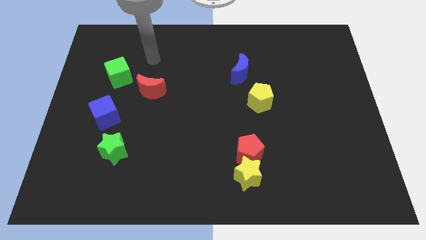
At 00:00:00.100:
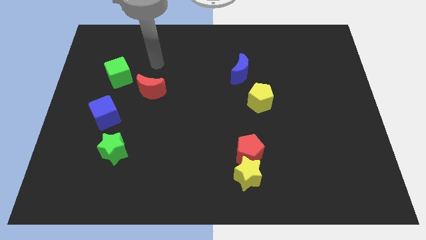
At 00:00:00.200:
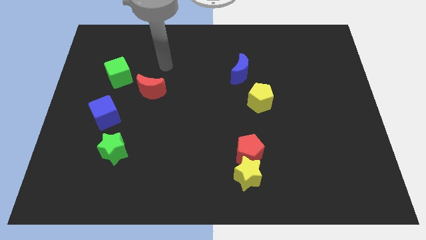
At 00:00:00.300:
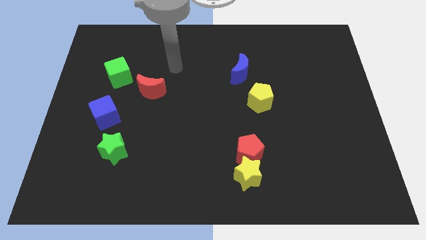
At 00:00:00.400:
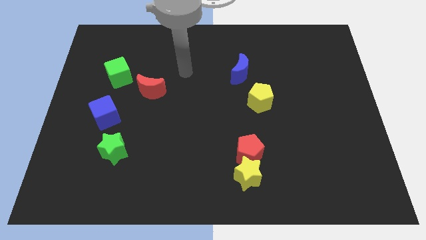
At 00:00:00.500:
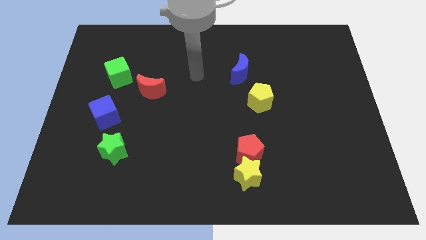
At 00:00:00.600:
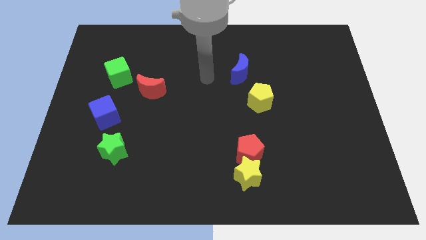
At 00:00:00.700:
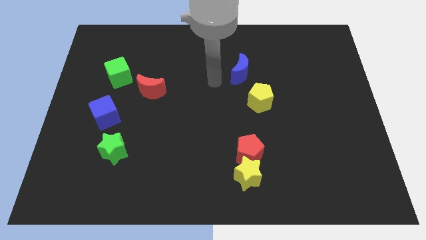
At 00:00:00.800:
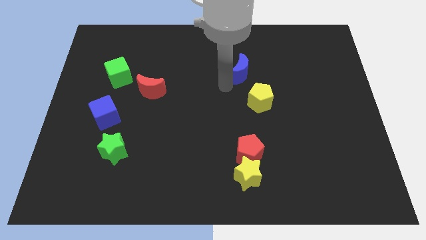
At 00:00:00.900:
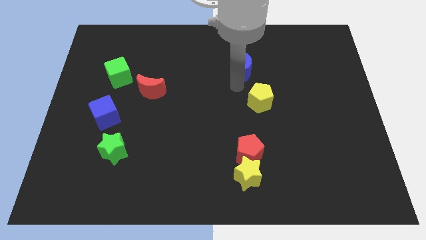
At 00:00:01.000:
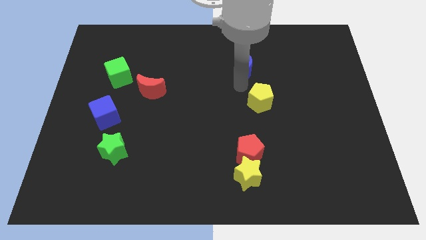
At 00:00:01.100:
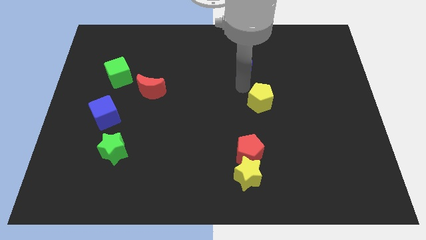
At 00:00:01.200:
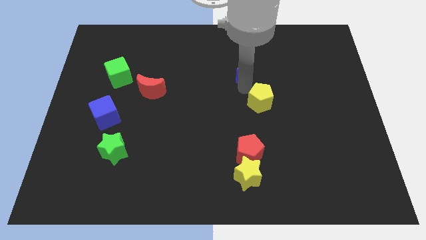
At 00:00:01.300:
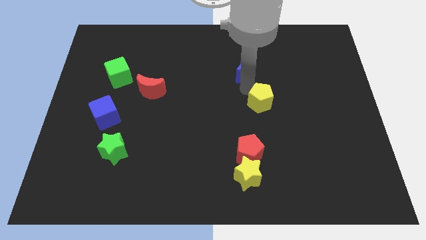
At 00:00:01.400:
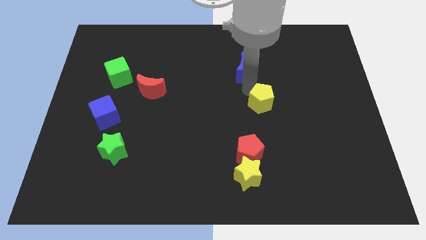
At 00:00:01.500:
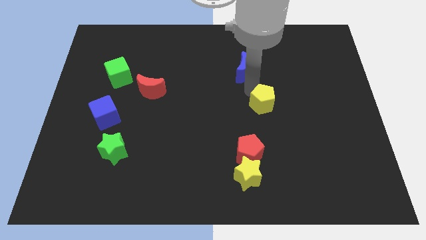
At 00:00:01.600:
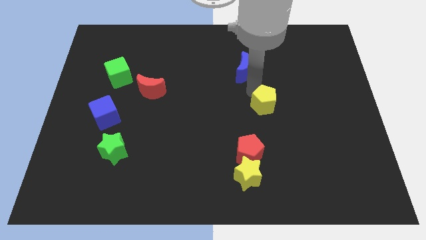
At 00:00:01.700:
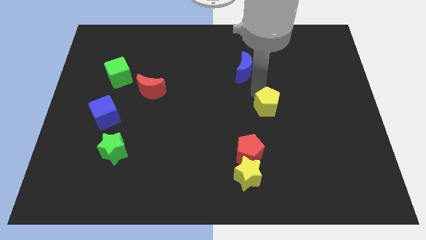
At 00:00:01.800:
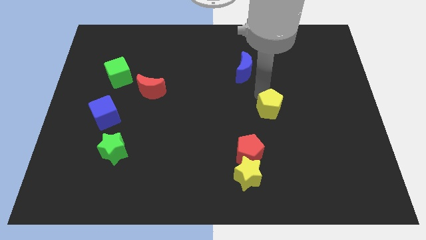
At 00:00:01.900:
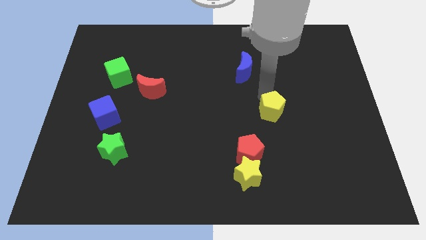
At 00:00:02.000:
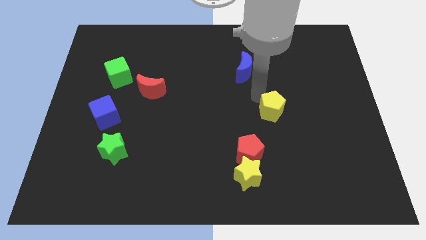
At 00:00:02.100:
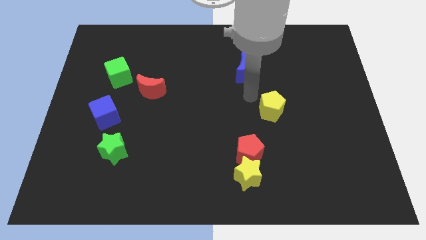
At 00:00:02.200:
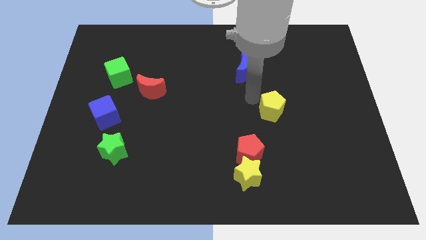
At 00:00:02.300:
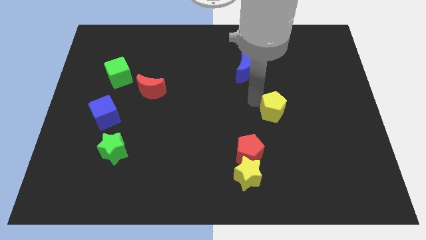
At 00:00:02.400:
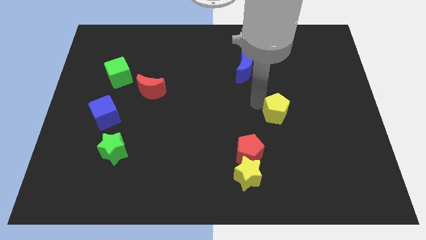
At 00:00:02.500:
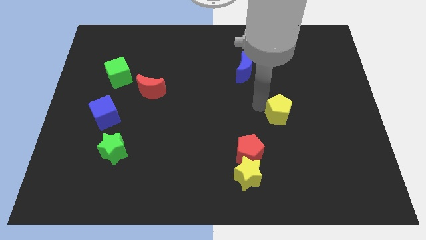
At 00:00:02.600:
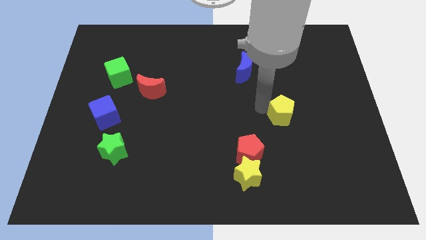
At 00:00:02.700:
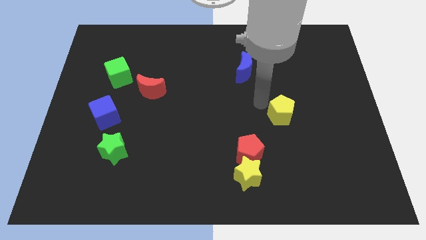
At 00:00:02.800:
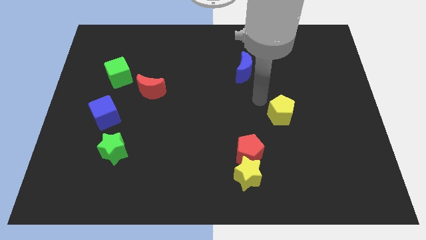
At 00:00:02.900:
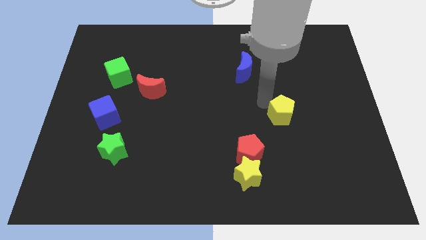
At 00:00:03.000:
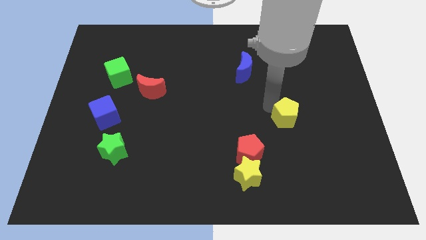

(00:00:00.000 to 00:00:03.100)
slightly push the yellow pentagon diagonally down and to the right

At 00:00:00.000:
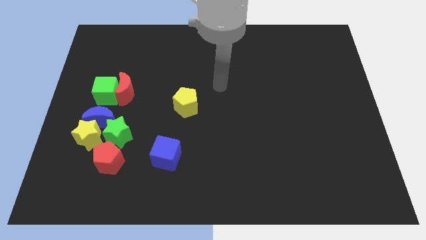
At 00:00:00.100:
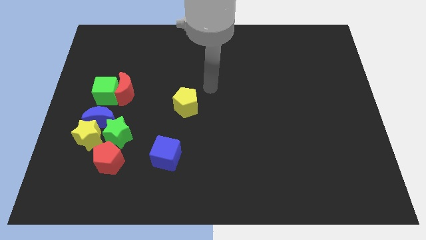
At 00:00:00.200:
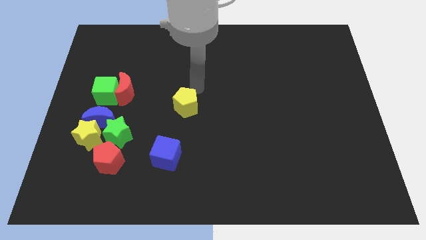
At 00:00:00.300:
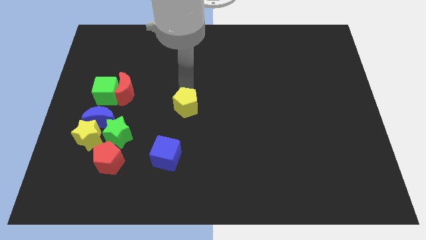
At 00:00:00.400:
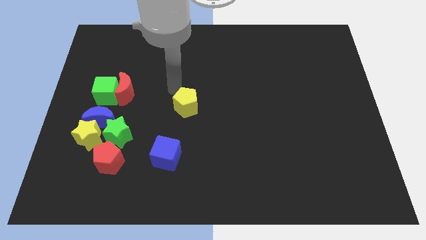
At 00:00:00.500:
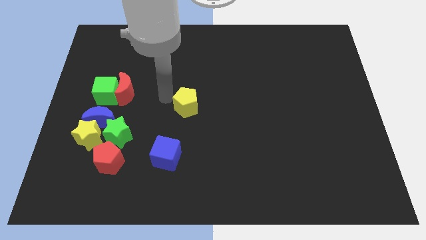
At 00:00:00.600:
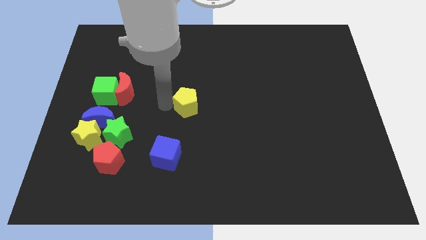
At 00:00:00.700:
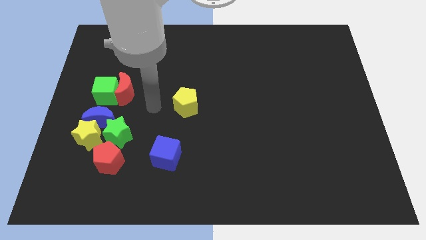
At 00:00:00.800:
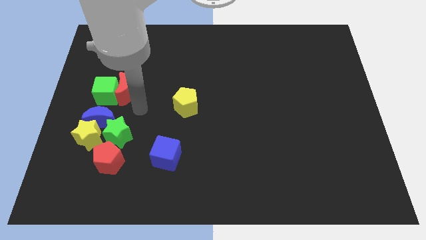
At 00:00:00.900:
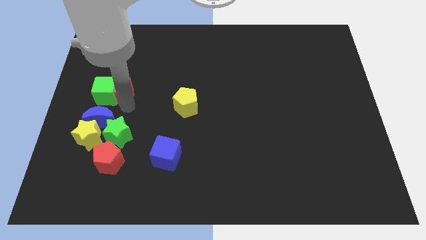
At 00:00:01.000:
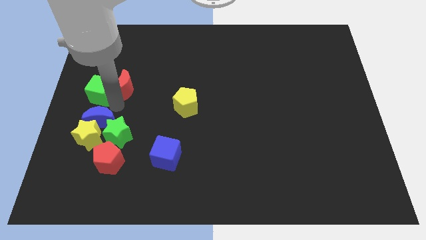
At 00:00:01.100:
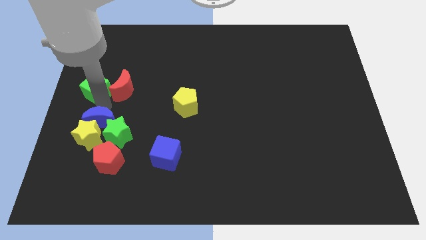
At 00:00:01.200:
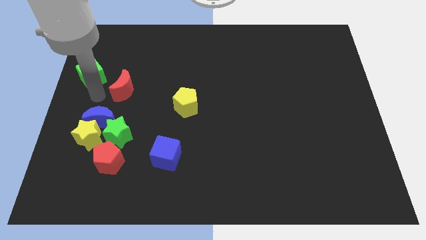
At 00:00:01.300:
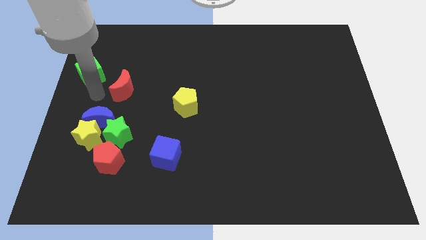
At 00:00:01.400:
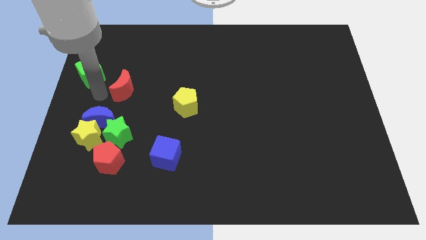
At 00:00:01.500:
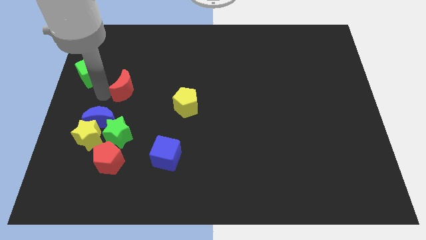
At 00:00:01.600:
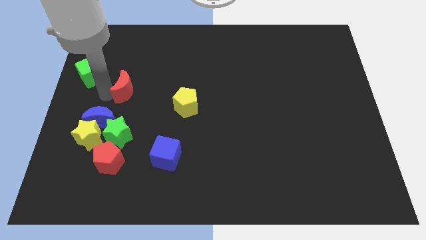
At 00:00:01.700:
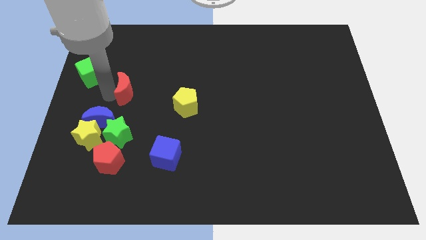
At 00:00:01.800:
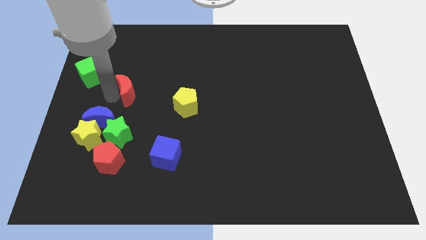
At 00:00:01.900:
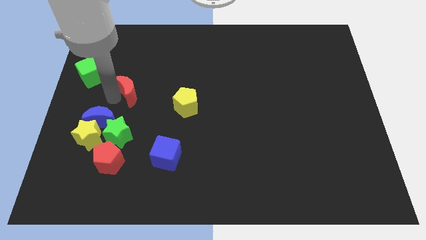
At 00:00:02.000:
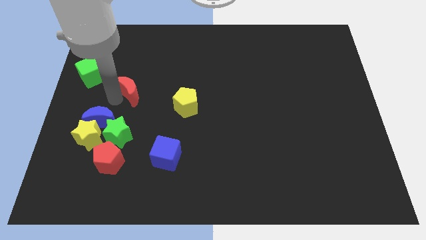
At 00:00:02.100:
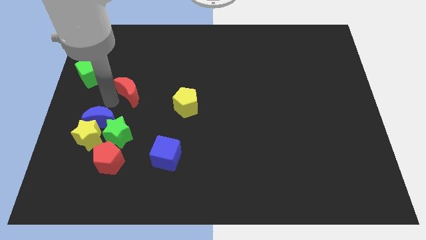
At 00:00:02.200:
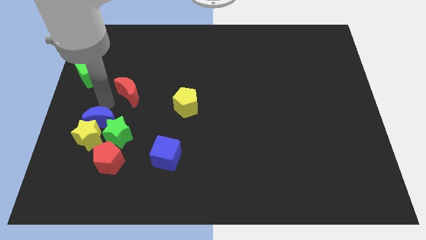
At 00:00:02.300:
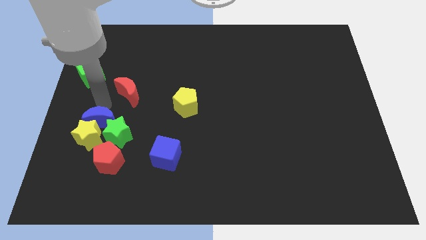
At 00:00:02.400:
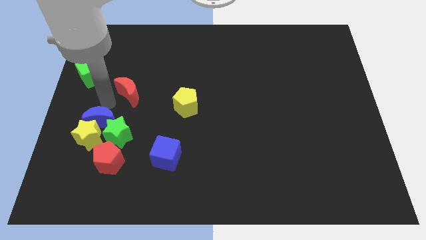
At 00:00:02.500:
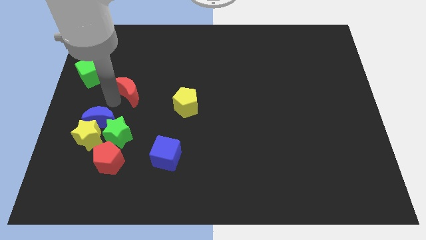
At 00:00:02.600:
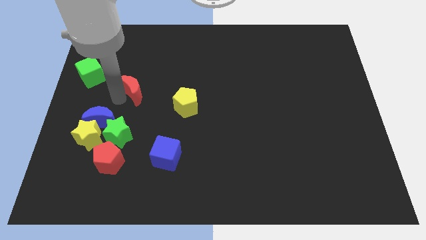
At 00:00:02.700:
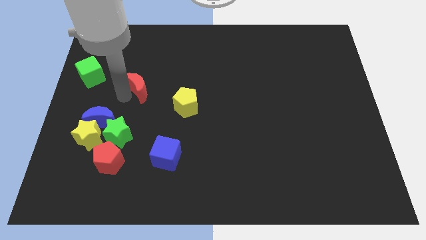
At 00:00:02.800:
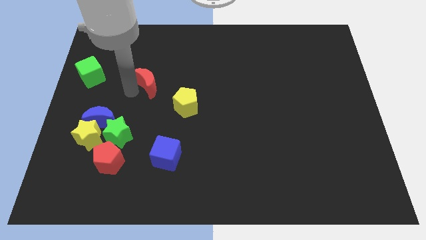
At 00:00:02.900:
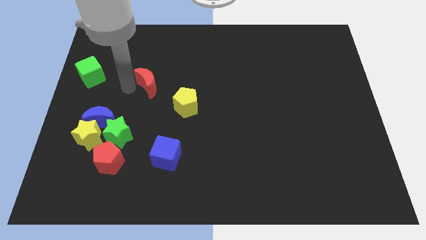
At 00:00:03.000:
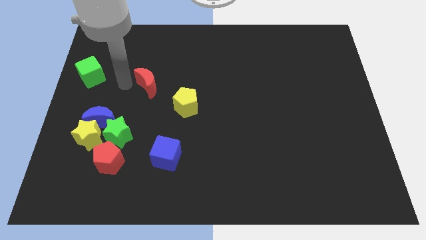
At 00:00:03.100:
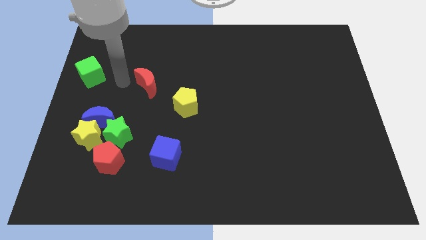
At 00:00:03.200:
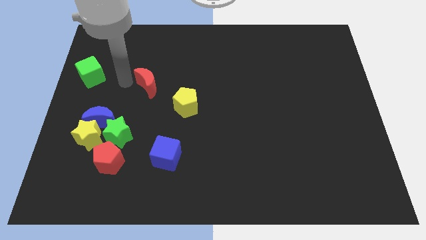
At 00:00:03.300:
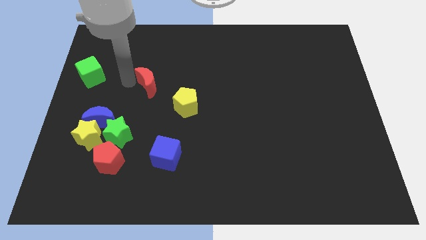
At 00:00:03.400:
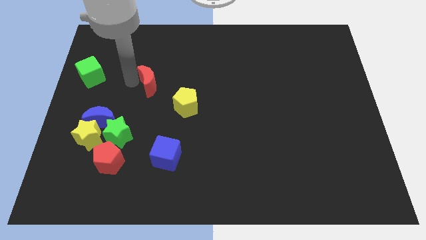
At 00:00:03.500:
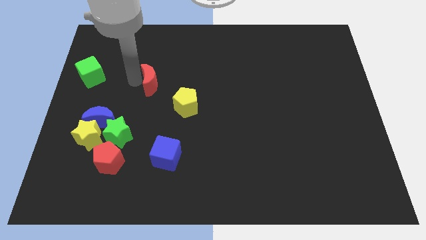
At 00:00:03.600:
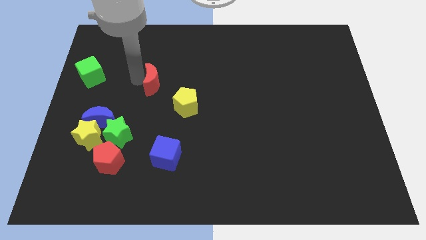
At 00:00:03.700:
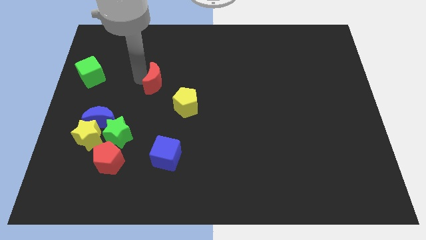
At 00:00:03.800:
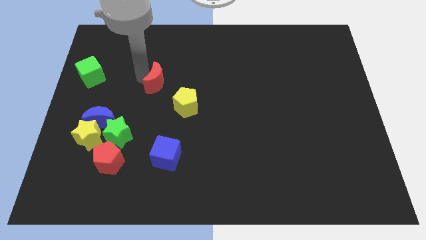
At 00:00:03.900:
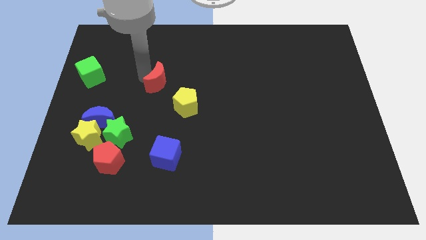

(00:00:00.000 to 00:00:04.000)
slightly move the red moon to the right

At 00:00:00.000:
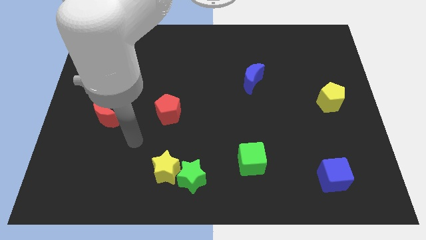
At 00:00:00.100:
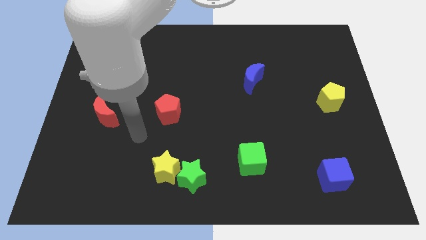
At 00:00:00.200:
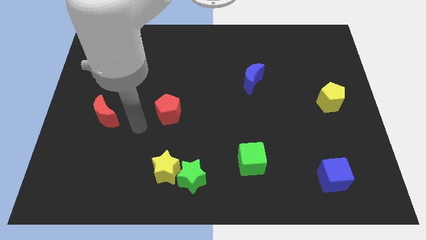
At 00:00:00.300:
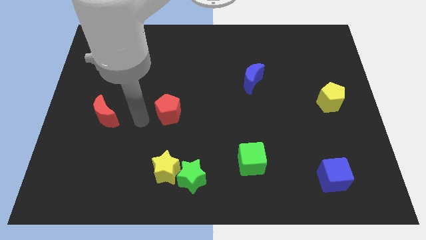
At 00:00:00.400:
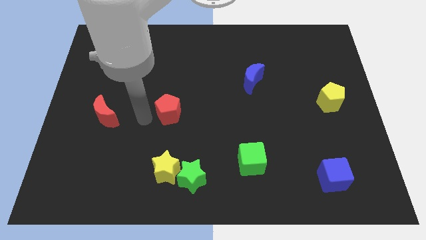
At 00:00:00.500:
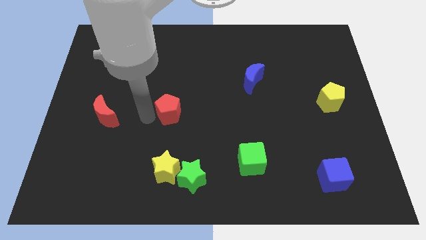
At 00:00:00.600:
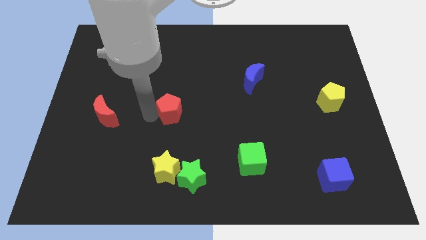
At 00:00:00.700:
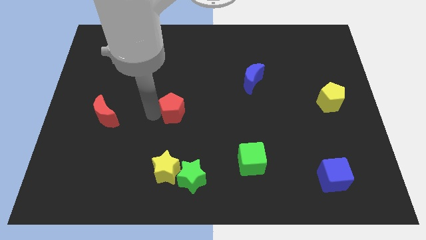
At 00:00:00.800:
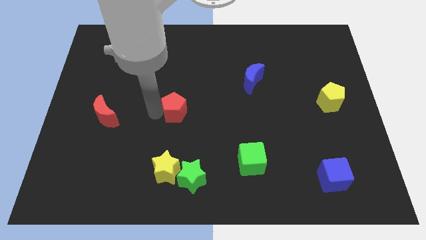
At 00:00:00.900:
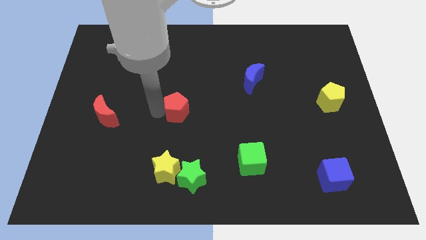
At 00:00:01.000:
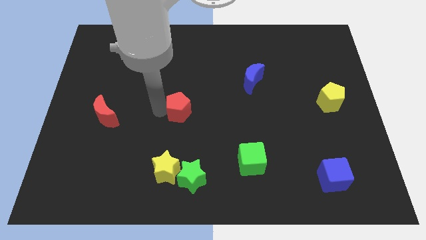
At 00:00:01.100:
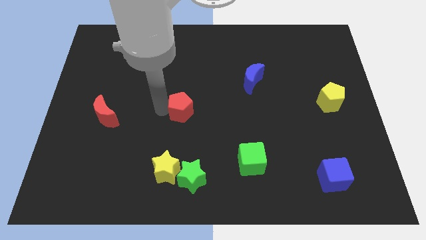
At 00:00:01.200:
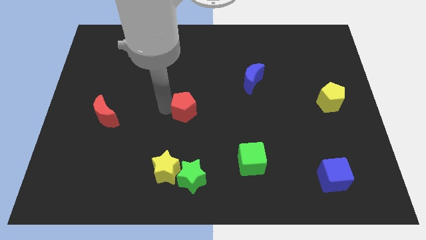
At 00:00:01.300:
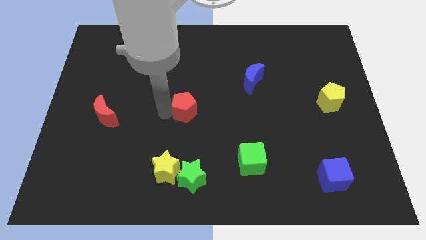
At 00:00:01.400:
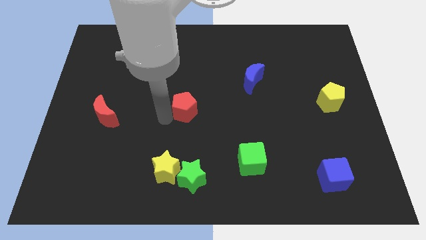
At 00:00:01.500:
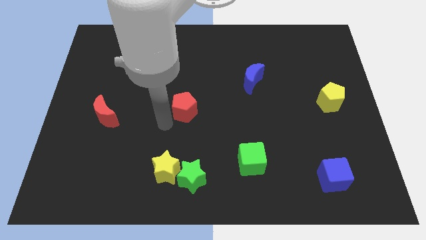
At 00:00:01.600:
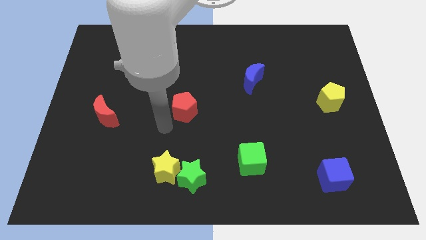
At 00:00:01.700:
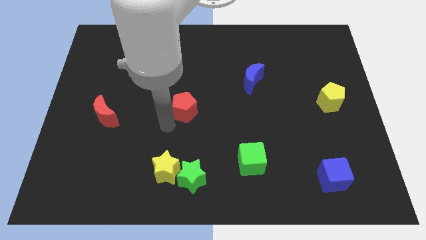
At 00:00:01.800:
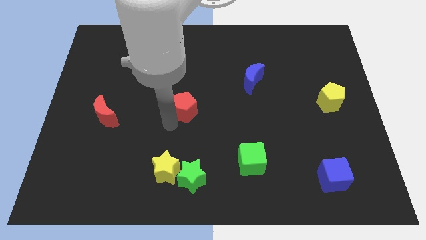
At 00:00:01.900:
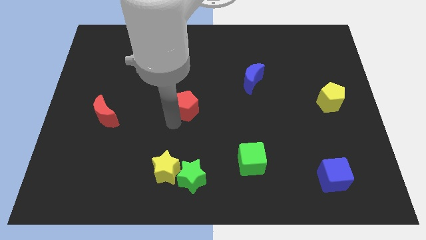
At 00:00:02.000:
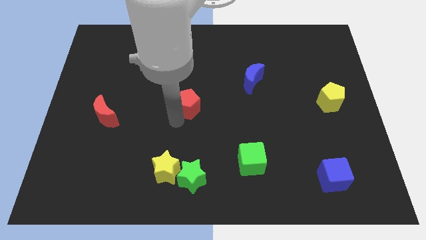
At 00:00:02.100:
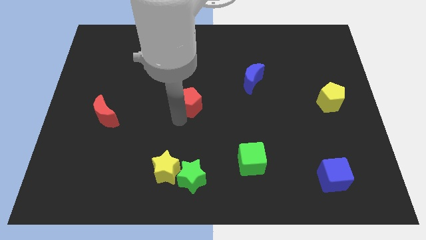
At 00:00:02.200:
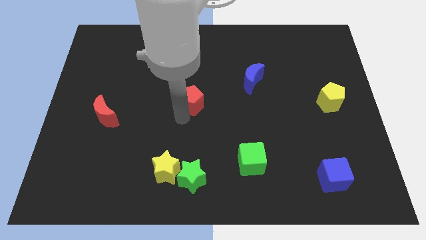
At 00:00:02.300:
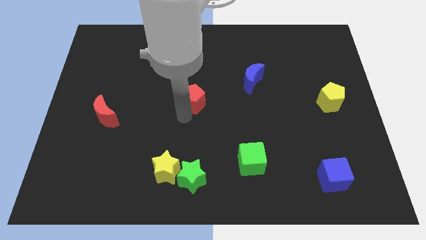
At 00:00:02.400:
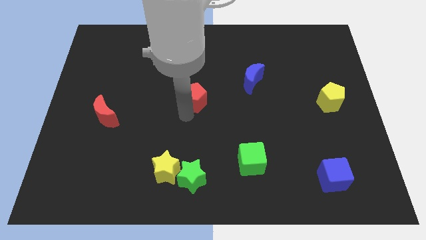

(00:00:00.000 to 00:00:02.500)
slide the red pentagon a little bit up and right
